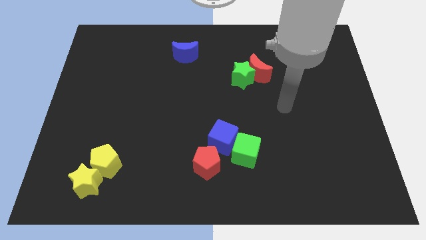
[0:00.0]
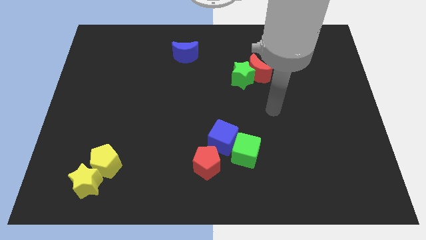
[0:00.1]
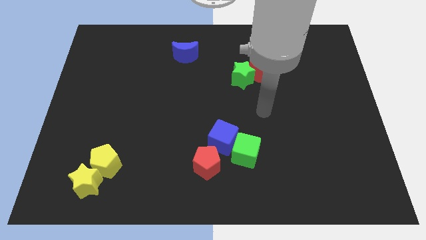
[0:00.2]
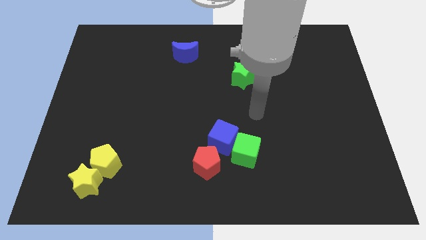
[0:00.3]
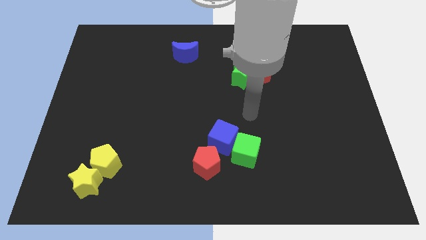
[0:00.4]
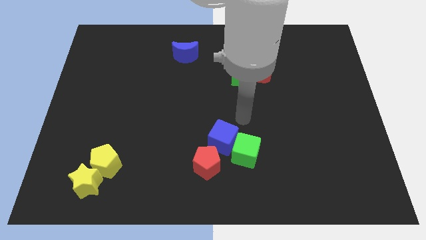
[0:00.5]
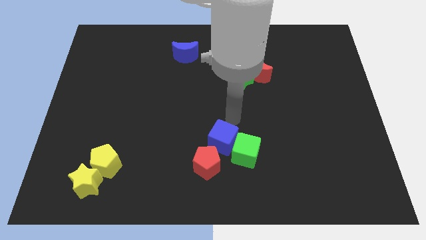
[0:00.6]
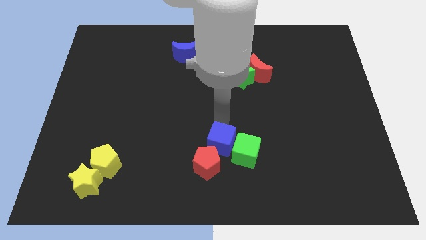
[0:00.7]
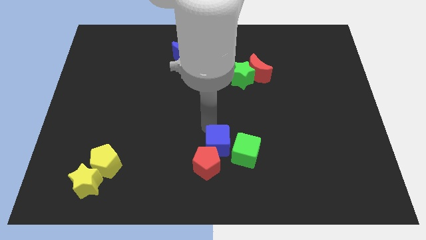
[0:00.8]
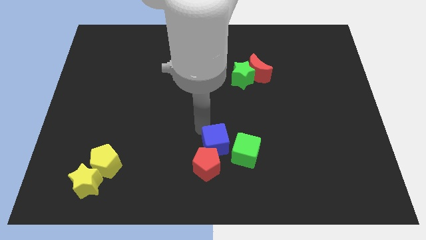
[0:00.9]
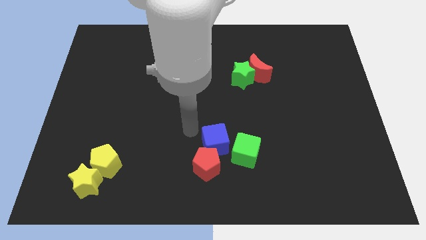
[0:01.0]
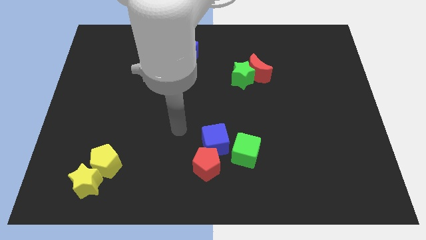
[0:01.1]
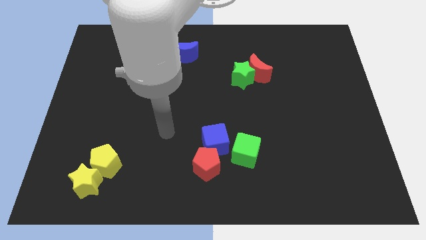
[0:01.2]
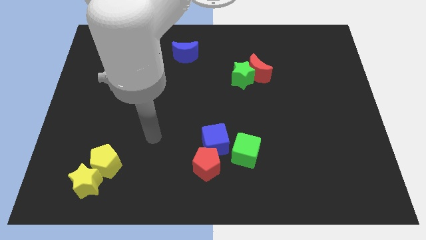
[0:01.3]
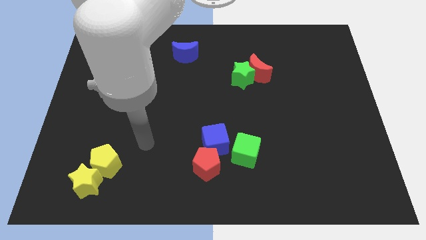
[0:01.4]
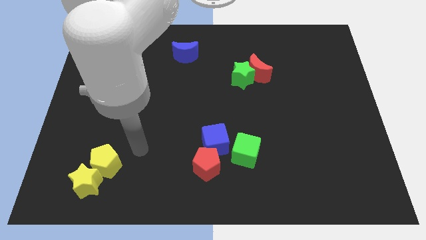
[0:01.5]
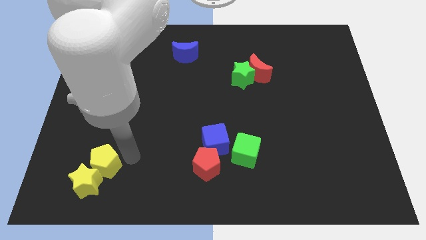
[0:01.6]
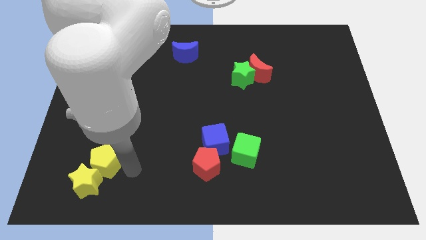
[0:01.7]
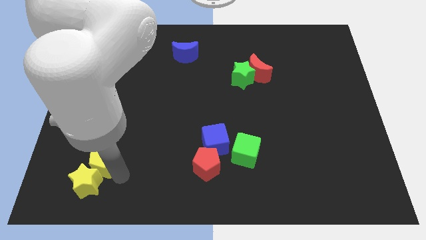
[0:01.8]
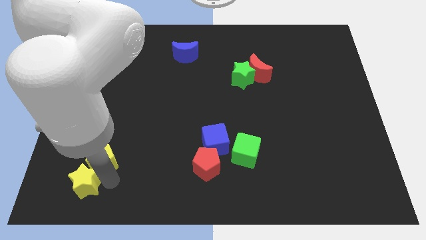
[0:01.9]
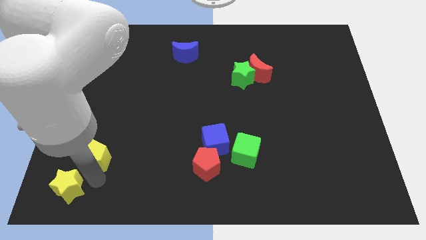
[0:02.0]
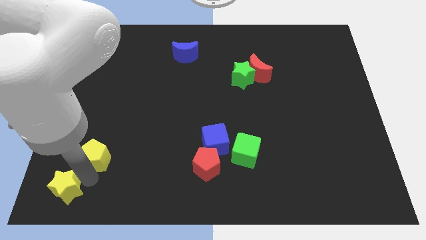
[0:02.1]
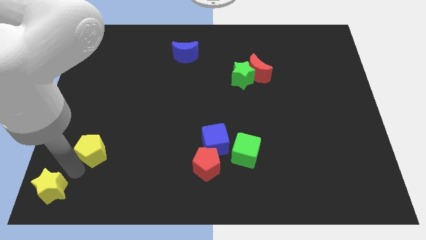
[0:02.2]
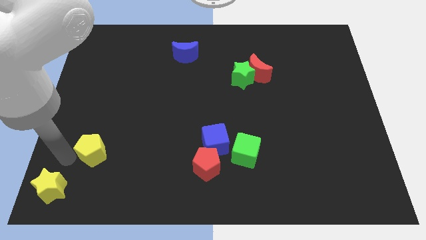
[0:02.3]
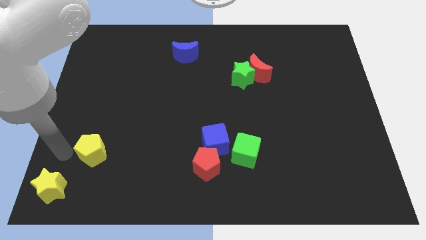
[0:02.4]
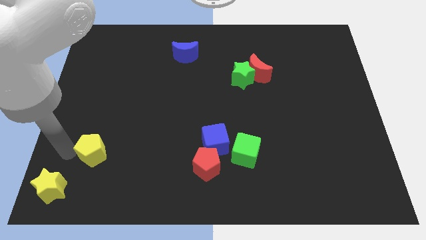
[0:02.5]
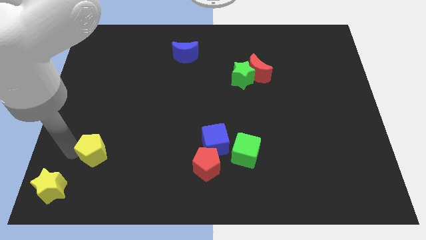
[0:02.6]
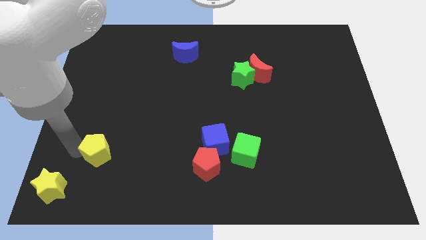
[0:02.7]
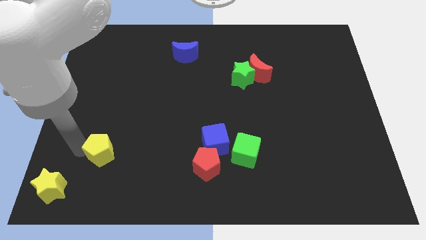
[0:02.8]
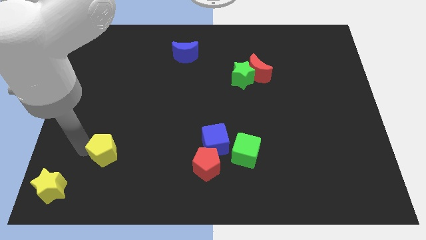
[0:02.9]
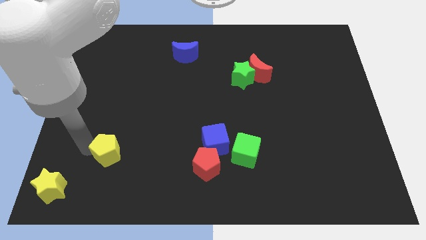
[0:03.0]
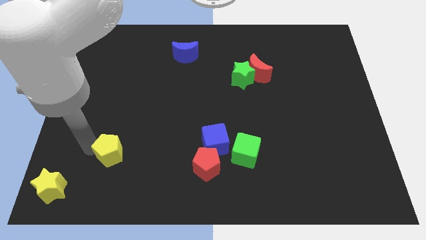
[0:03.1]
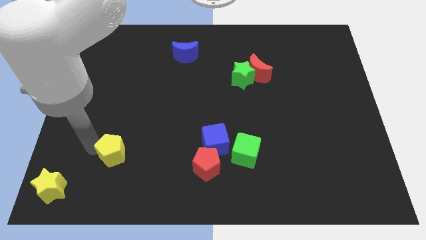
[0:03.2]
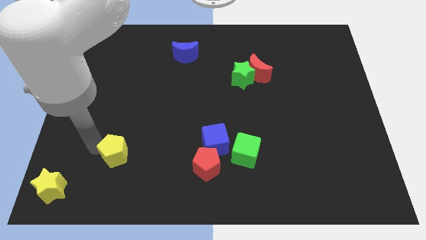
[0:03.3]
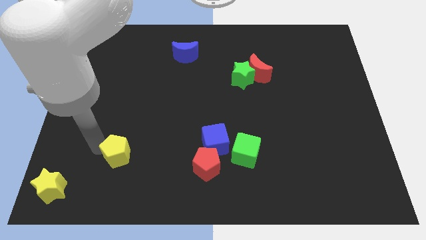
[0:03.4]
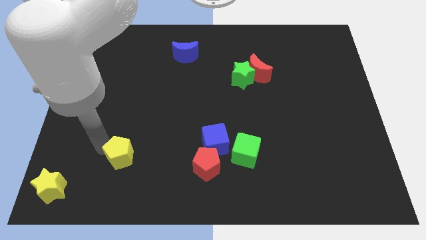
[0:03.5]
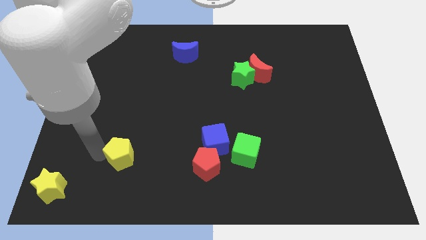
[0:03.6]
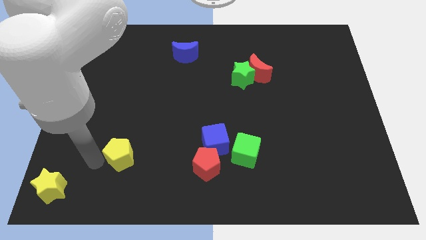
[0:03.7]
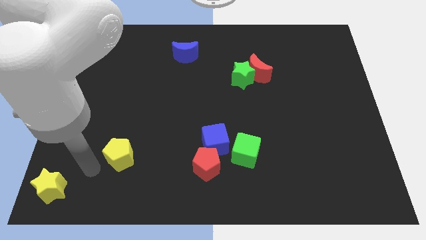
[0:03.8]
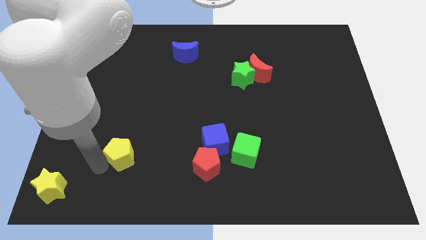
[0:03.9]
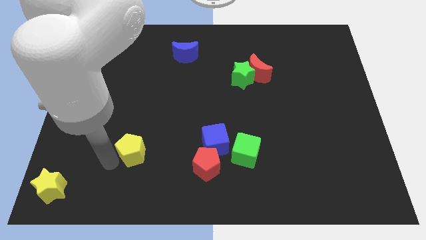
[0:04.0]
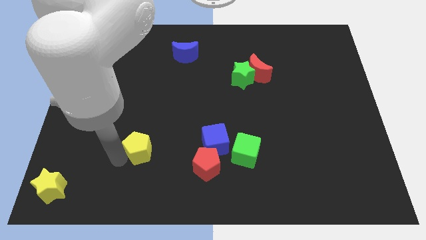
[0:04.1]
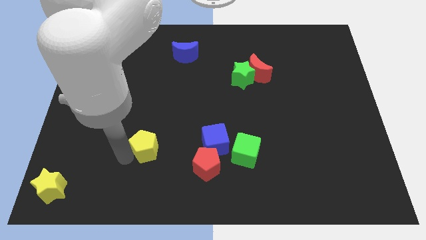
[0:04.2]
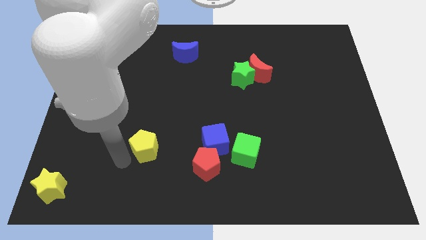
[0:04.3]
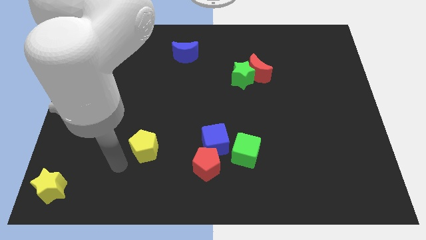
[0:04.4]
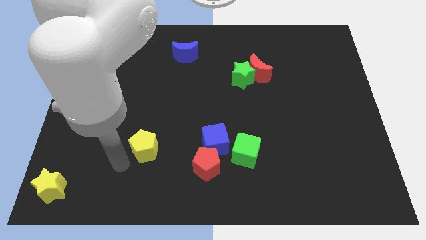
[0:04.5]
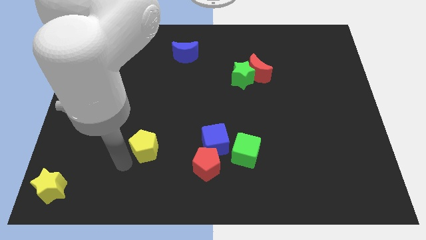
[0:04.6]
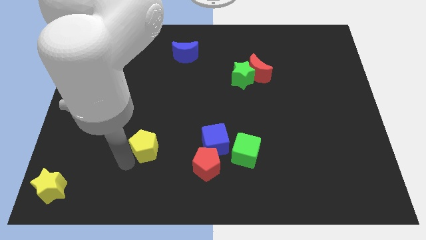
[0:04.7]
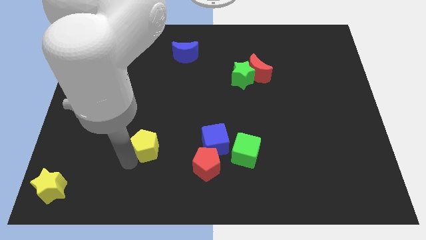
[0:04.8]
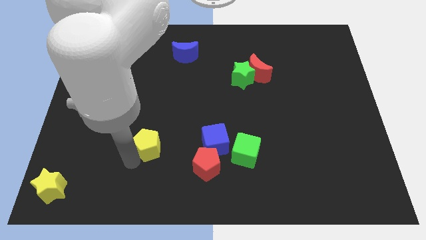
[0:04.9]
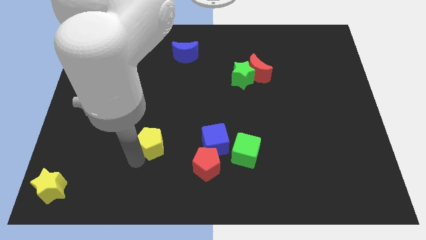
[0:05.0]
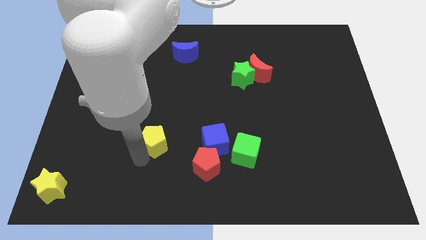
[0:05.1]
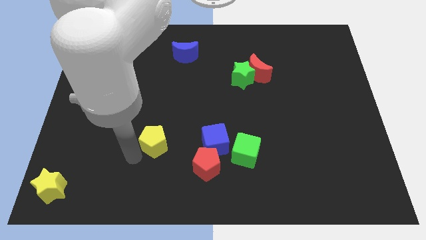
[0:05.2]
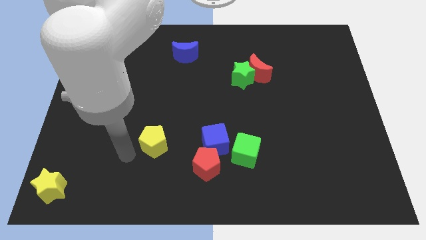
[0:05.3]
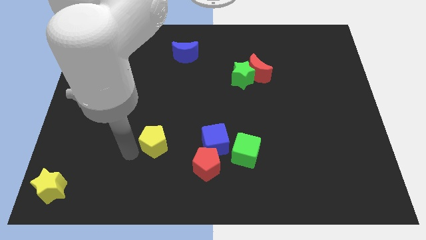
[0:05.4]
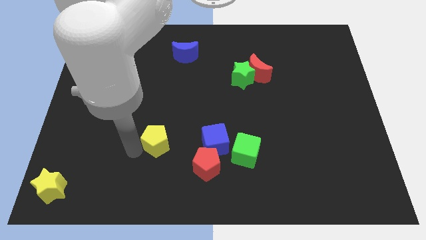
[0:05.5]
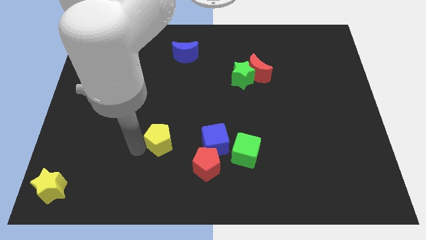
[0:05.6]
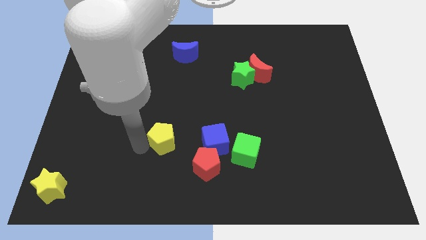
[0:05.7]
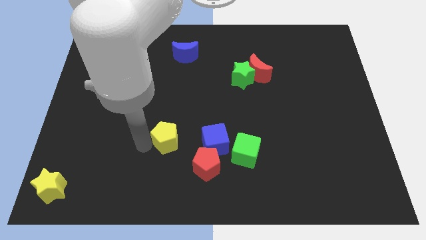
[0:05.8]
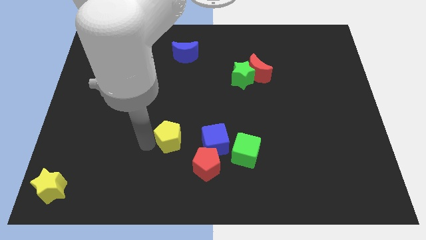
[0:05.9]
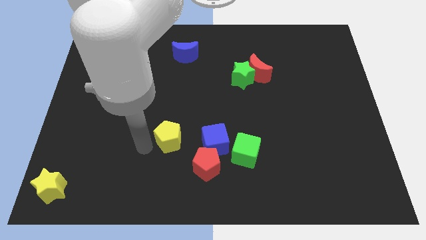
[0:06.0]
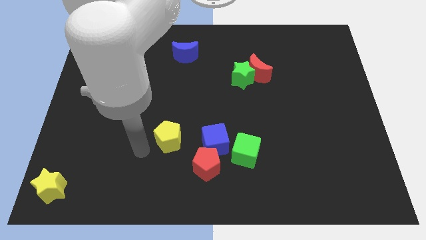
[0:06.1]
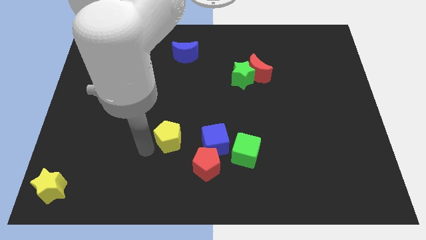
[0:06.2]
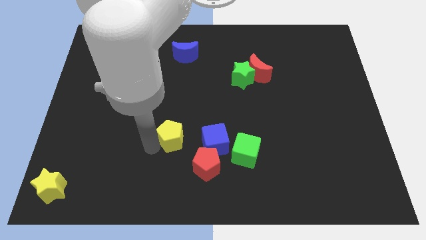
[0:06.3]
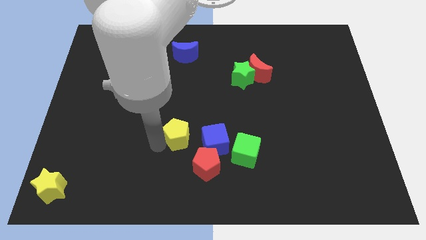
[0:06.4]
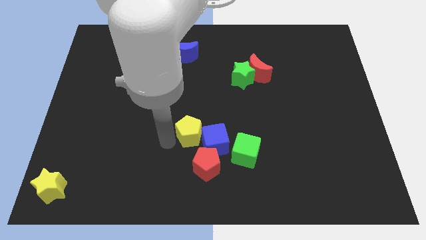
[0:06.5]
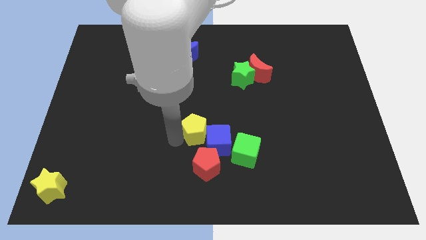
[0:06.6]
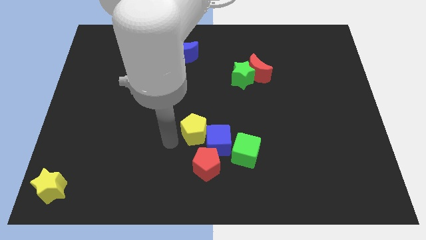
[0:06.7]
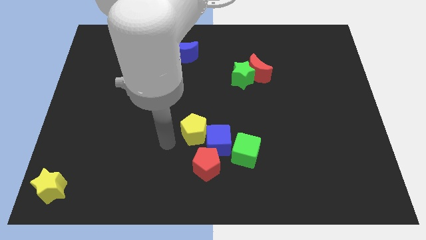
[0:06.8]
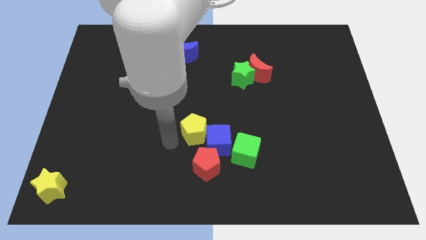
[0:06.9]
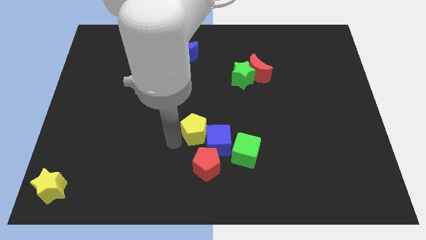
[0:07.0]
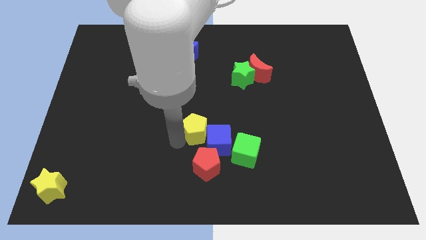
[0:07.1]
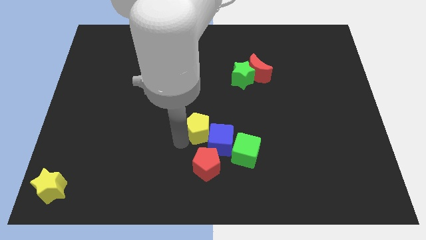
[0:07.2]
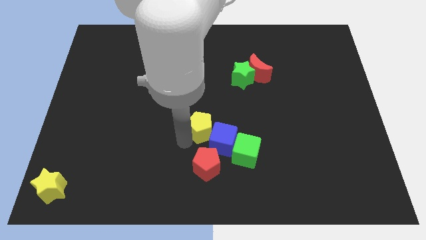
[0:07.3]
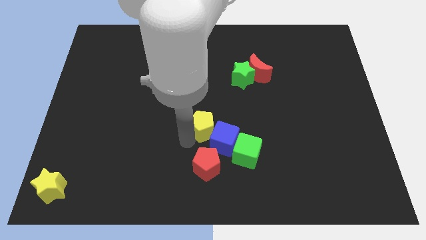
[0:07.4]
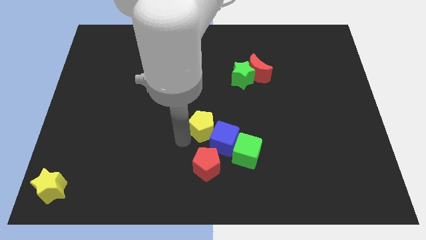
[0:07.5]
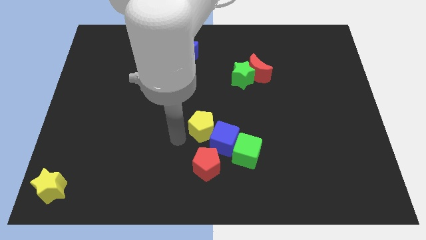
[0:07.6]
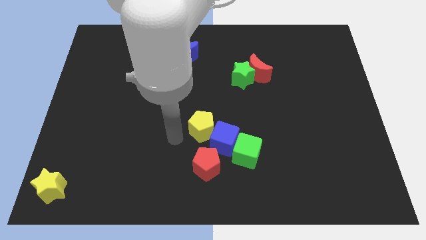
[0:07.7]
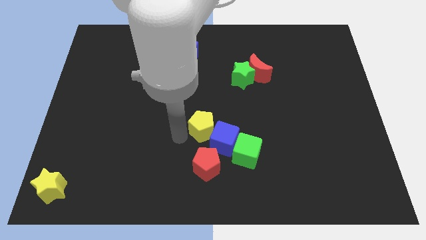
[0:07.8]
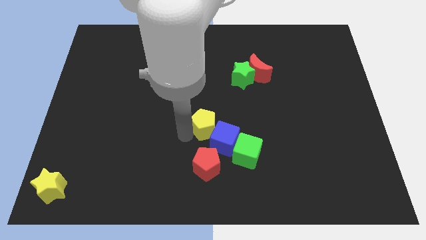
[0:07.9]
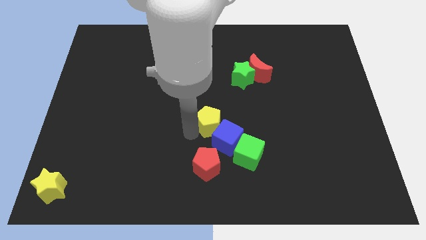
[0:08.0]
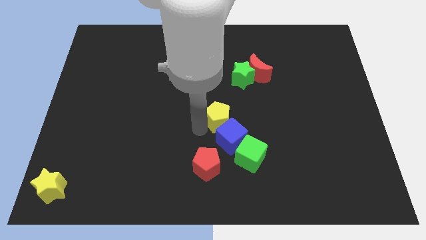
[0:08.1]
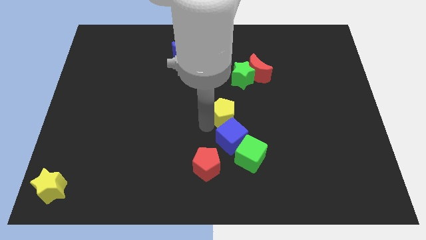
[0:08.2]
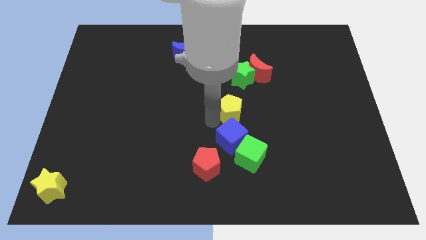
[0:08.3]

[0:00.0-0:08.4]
slide the yellow pentagon to the top of the green cube
